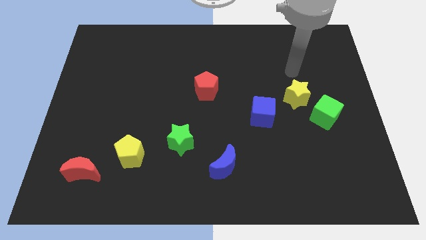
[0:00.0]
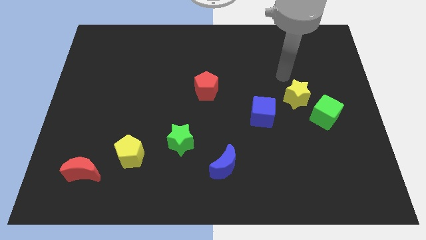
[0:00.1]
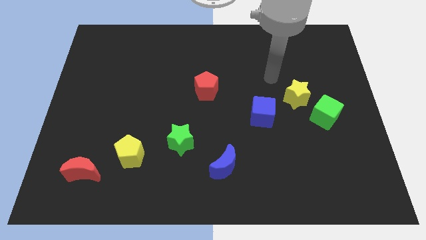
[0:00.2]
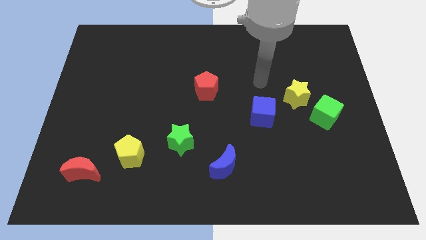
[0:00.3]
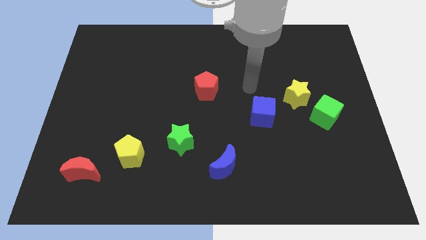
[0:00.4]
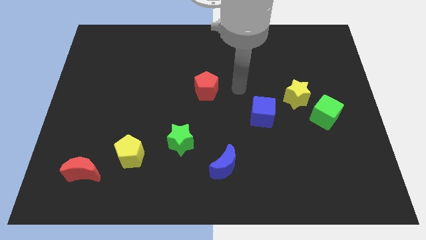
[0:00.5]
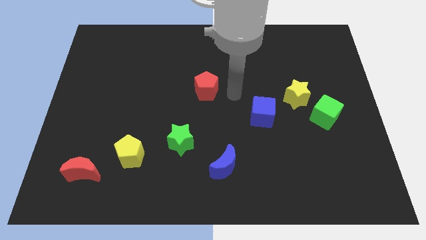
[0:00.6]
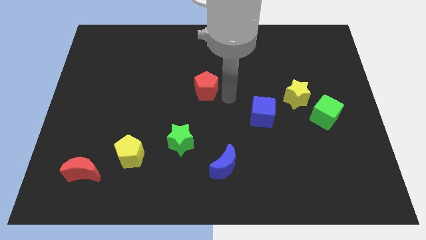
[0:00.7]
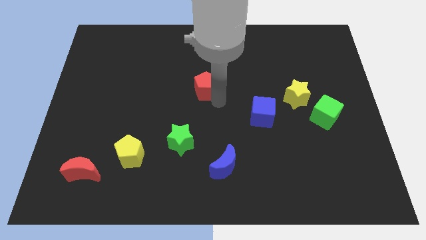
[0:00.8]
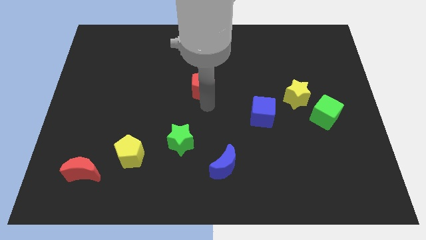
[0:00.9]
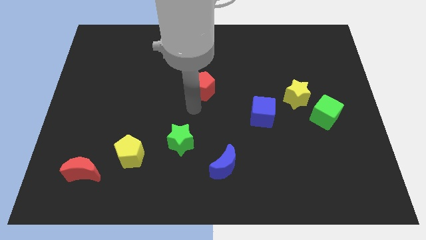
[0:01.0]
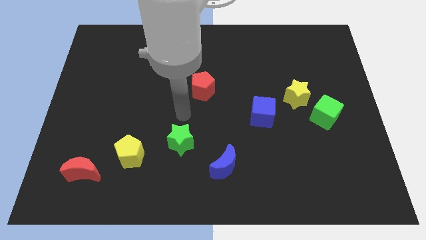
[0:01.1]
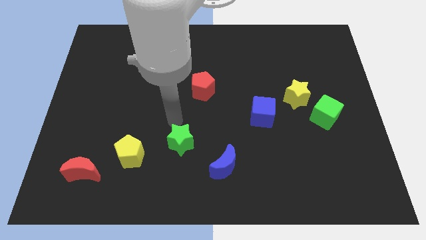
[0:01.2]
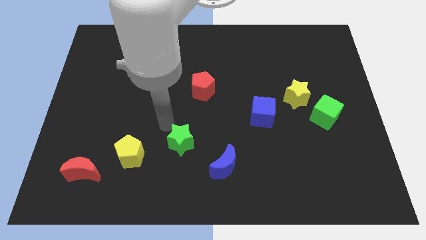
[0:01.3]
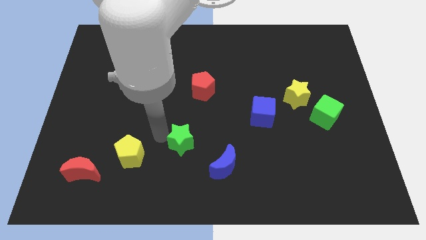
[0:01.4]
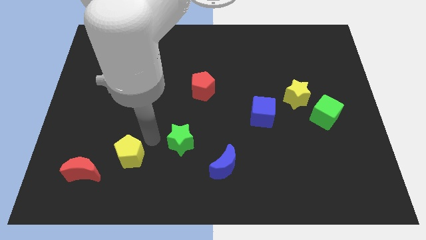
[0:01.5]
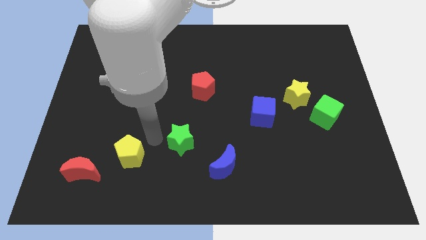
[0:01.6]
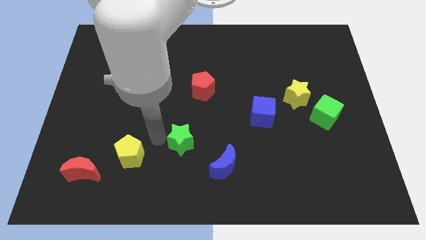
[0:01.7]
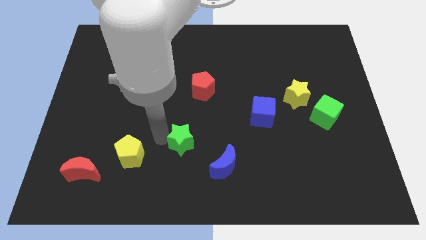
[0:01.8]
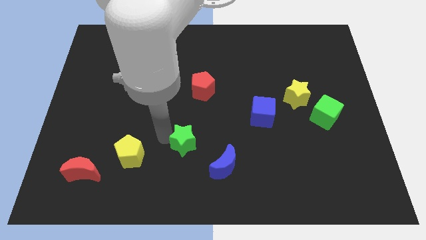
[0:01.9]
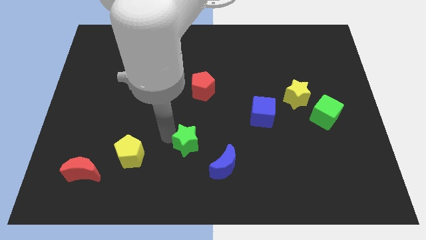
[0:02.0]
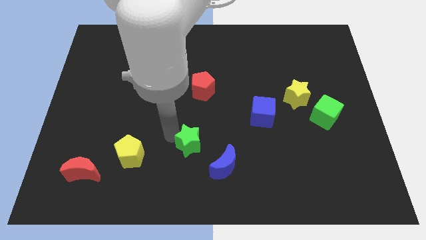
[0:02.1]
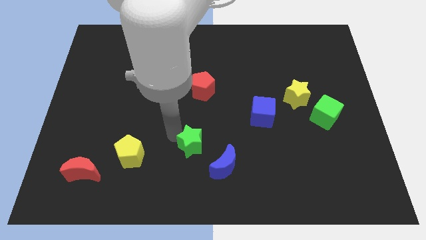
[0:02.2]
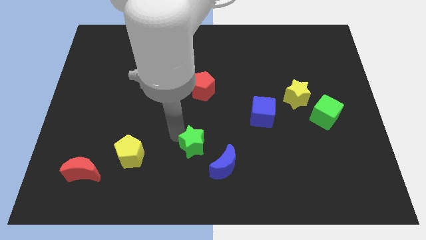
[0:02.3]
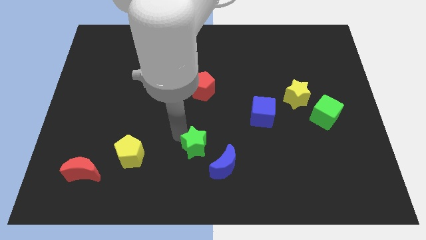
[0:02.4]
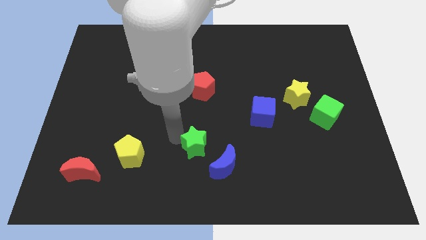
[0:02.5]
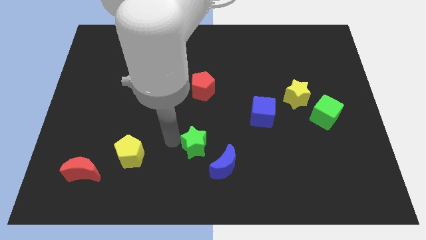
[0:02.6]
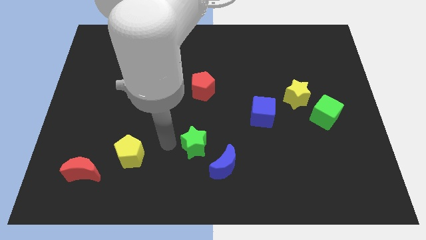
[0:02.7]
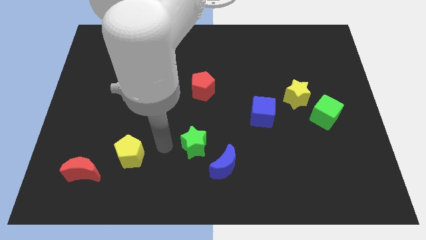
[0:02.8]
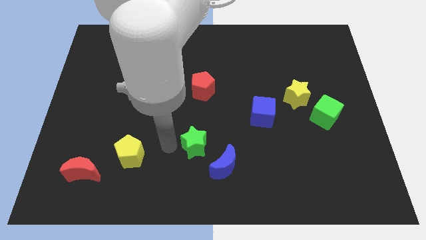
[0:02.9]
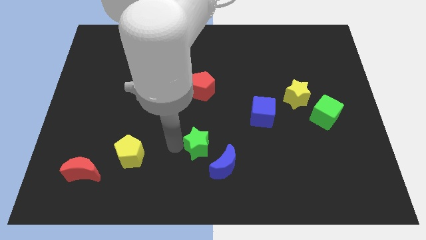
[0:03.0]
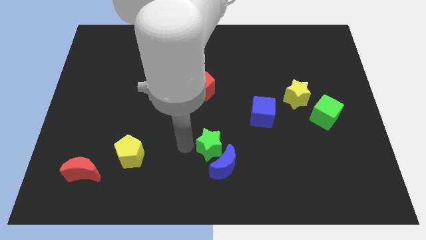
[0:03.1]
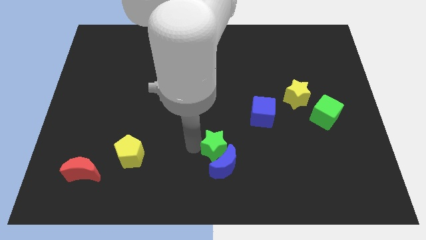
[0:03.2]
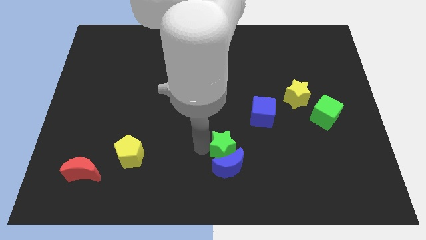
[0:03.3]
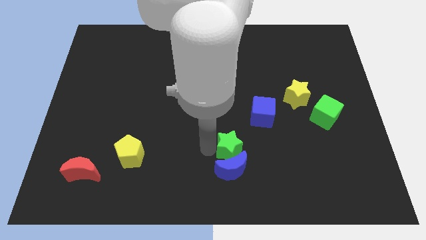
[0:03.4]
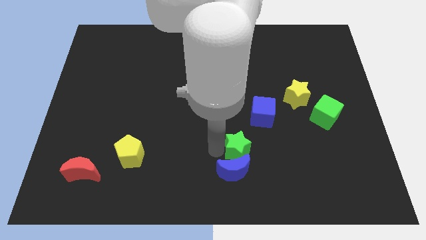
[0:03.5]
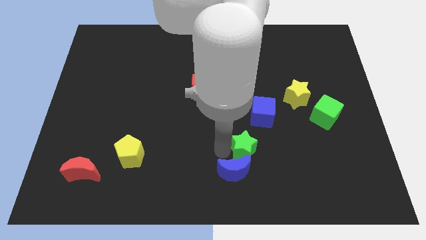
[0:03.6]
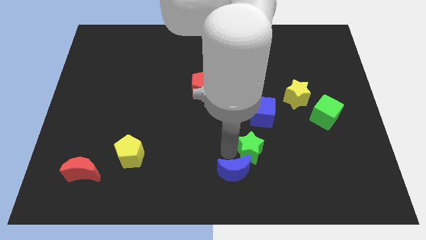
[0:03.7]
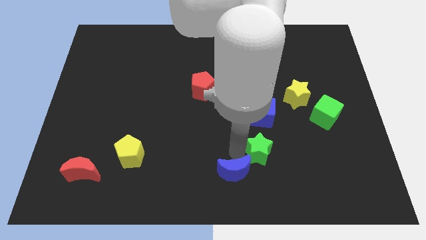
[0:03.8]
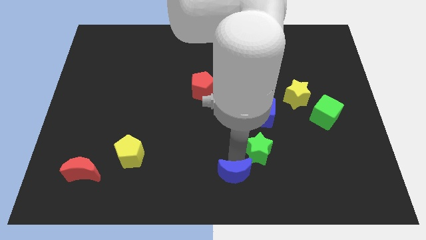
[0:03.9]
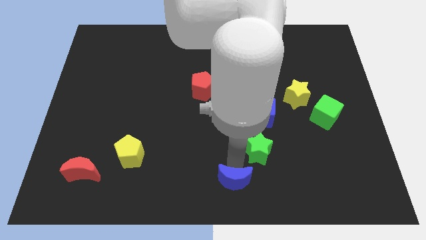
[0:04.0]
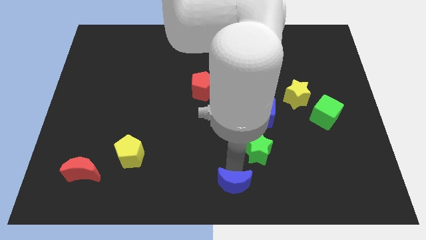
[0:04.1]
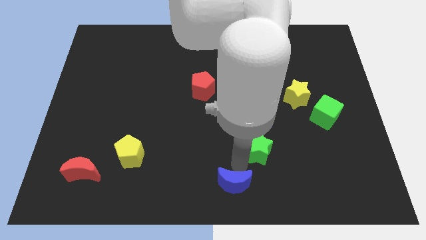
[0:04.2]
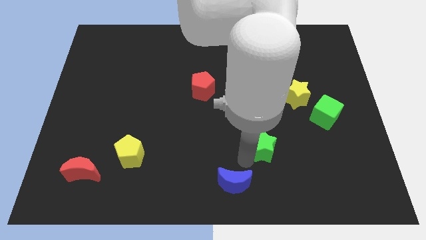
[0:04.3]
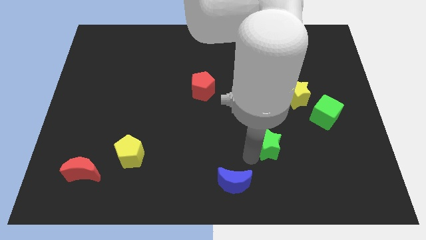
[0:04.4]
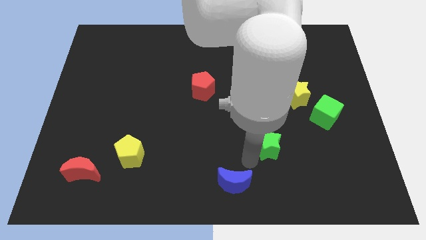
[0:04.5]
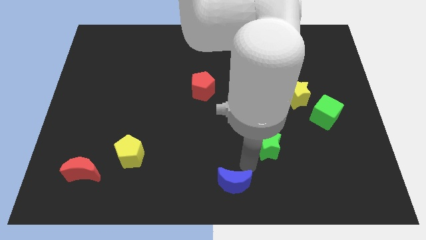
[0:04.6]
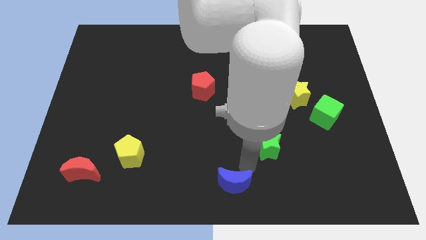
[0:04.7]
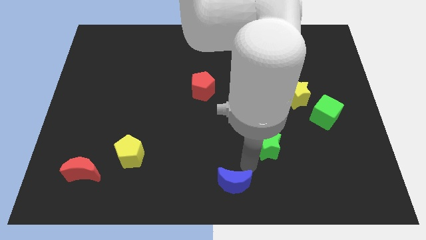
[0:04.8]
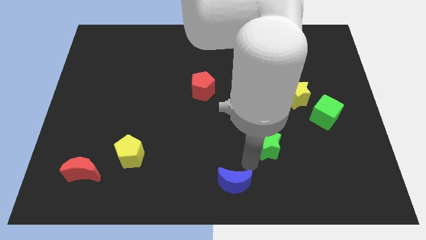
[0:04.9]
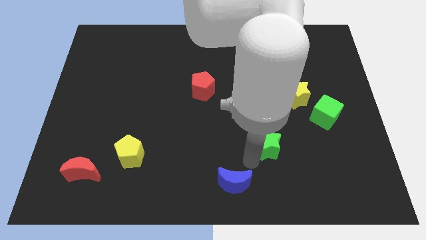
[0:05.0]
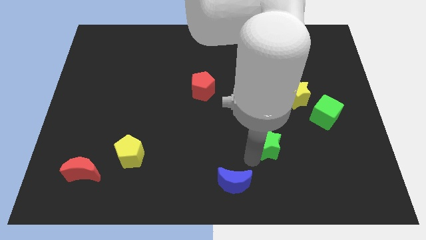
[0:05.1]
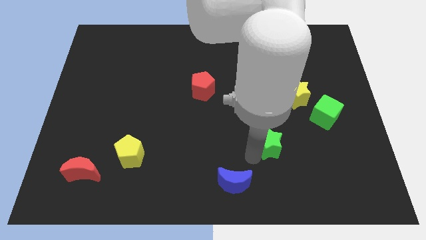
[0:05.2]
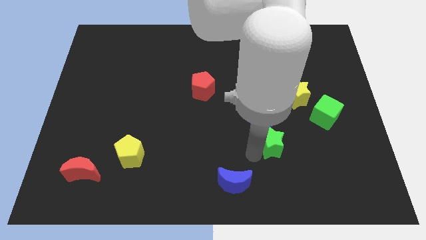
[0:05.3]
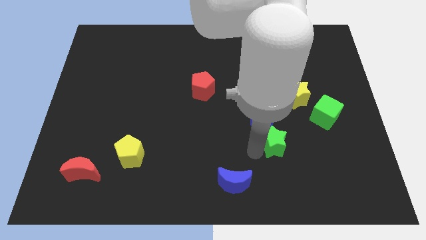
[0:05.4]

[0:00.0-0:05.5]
slide the green star to the right

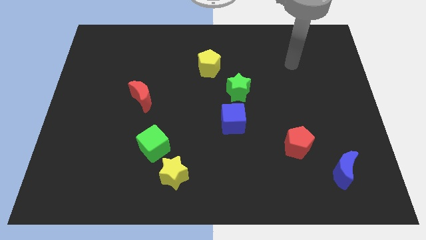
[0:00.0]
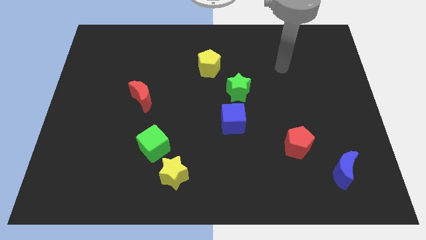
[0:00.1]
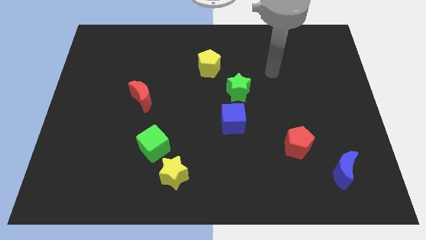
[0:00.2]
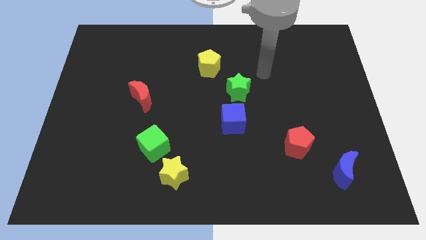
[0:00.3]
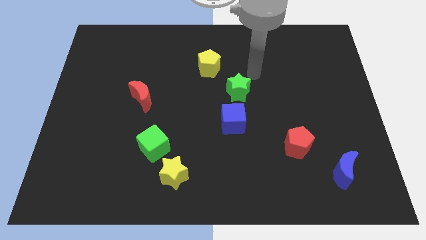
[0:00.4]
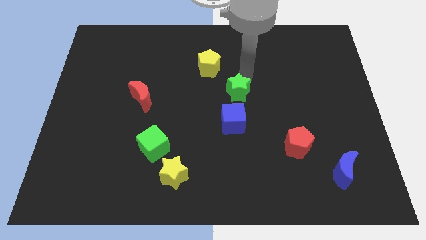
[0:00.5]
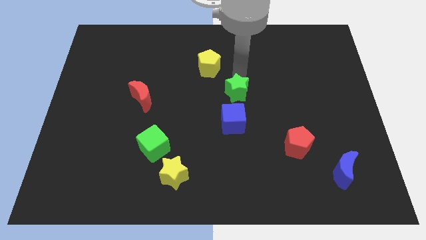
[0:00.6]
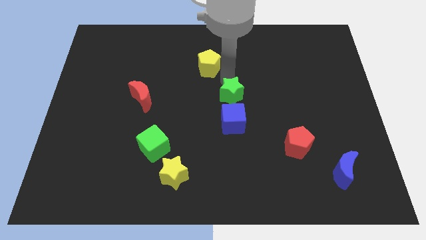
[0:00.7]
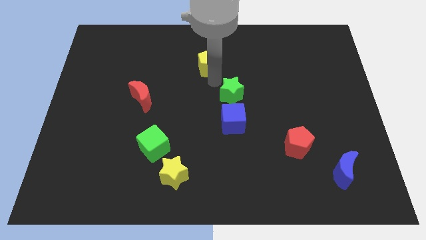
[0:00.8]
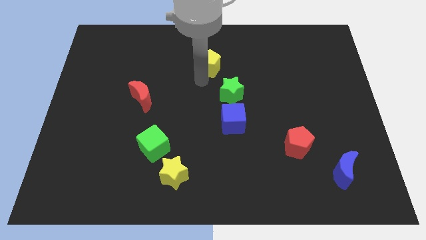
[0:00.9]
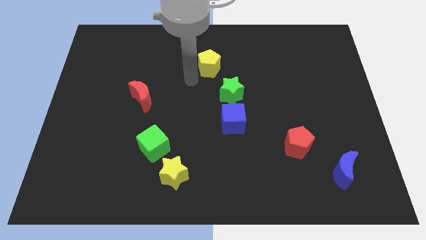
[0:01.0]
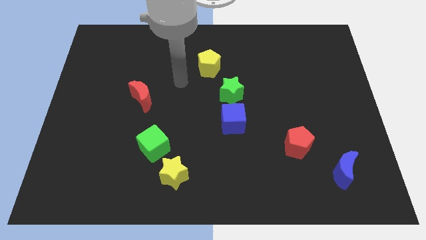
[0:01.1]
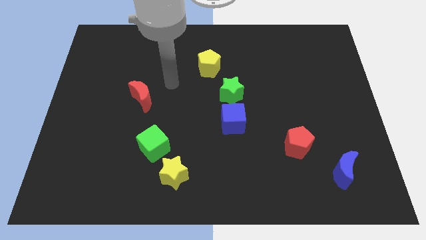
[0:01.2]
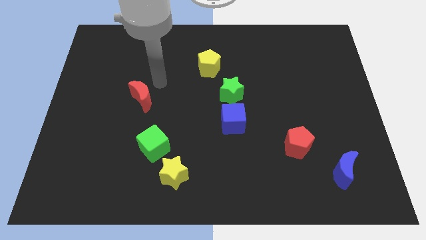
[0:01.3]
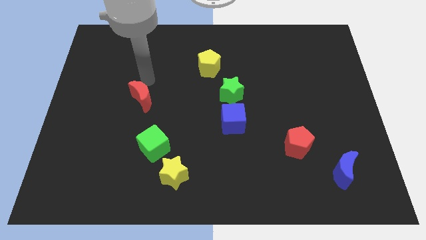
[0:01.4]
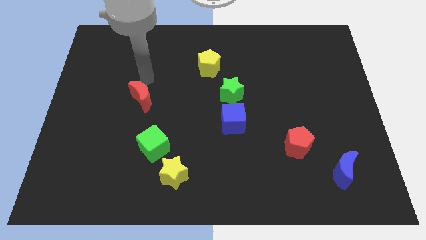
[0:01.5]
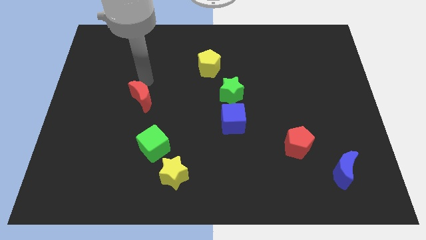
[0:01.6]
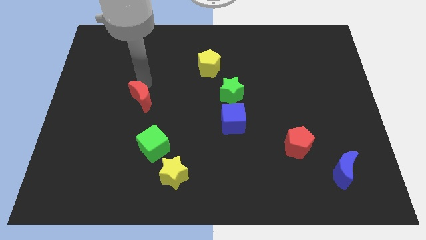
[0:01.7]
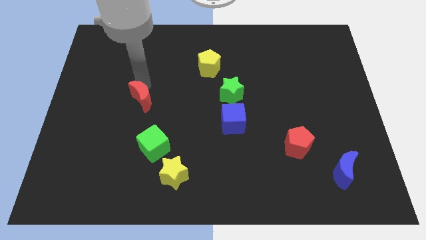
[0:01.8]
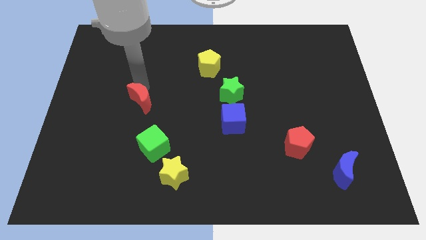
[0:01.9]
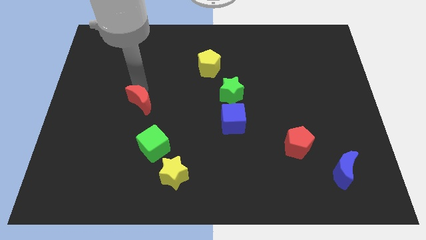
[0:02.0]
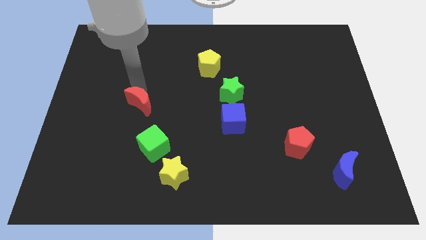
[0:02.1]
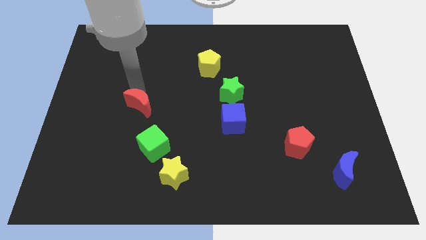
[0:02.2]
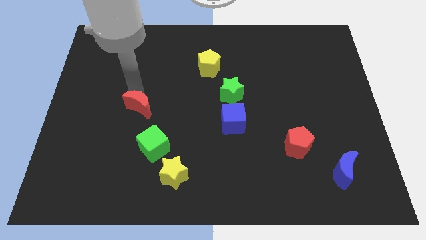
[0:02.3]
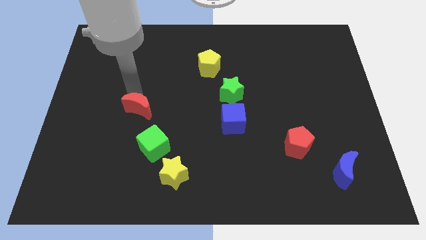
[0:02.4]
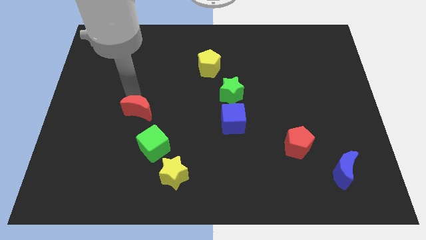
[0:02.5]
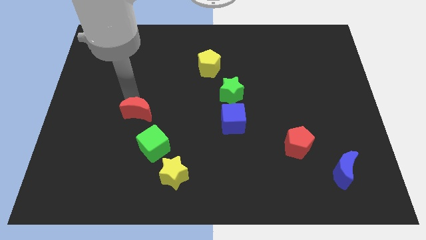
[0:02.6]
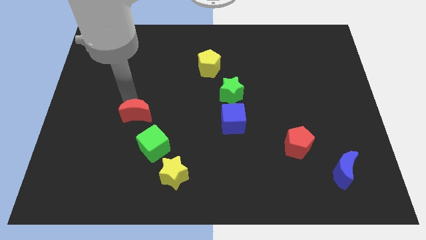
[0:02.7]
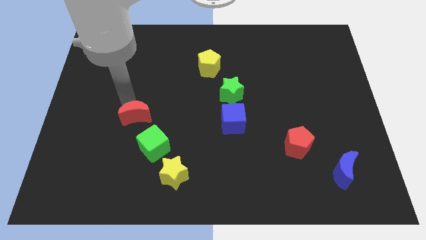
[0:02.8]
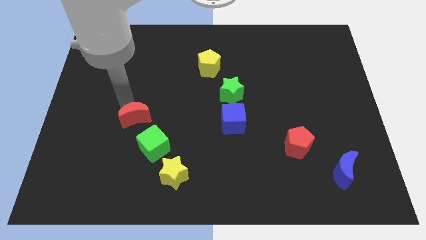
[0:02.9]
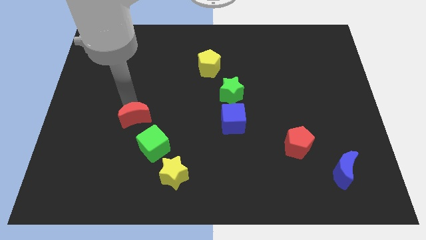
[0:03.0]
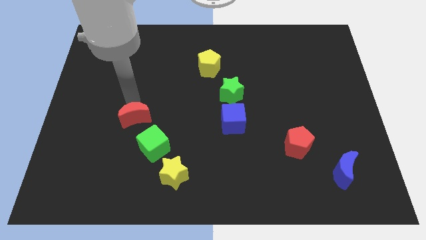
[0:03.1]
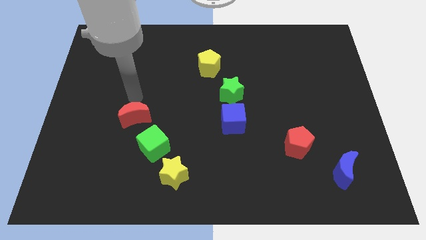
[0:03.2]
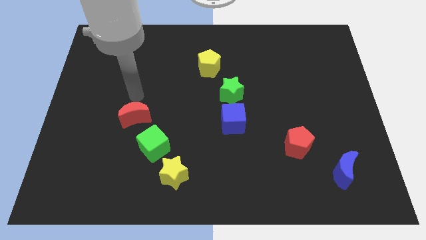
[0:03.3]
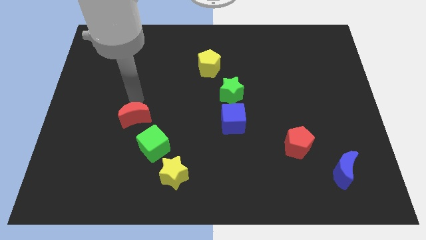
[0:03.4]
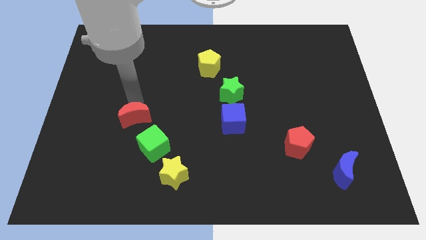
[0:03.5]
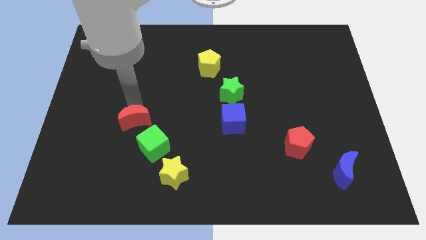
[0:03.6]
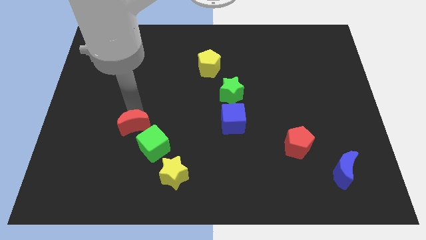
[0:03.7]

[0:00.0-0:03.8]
slide the red moon downwards a little bit
